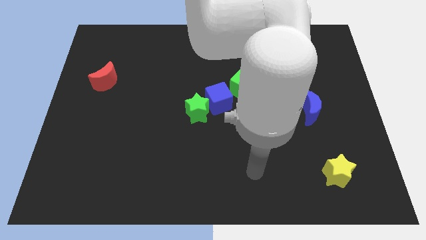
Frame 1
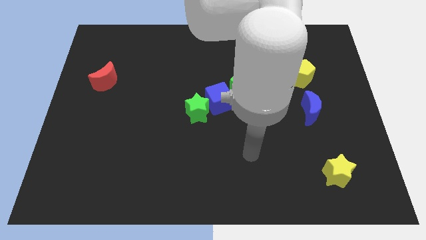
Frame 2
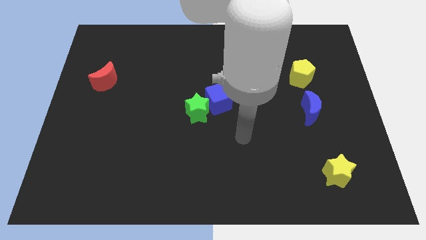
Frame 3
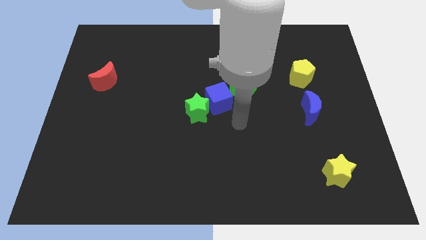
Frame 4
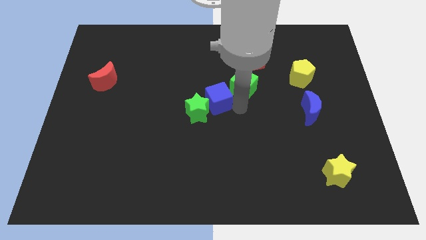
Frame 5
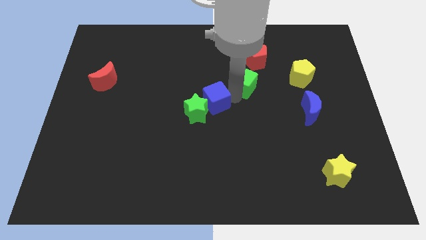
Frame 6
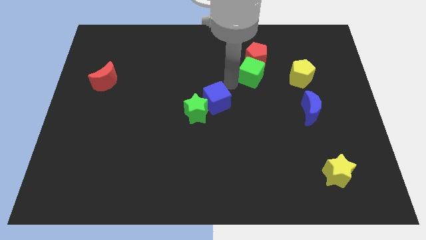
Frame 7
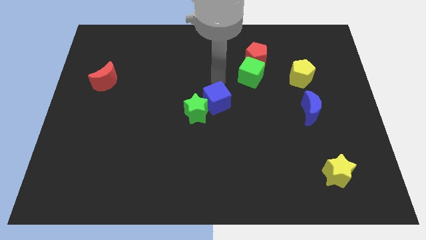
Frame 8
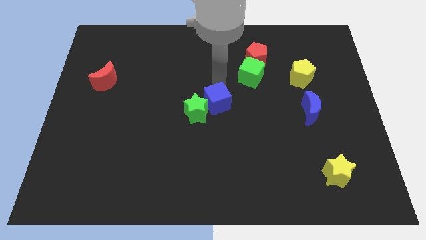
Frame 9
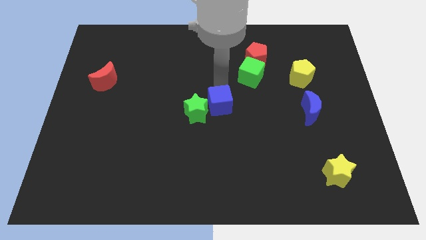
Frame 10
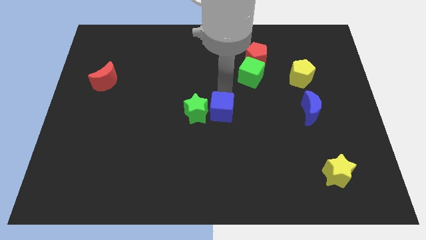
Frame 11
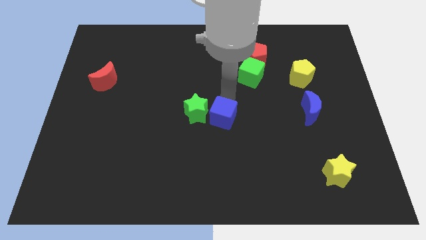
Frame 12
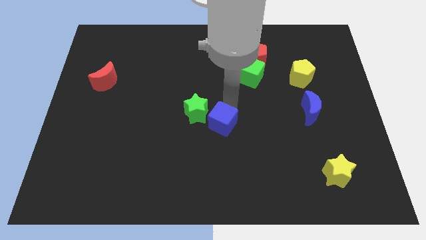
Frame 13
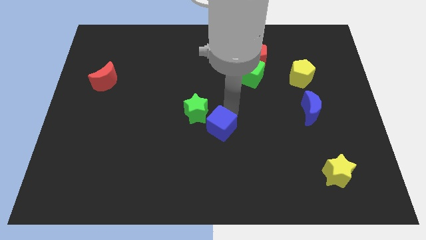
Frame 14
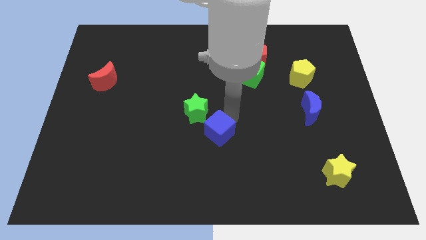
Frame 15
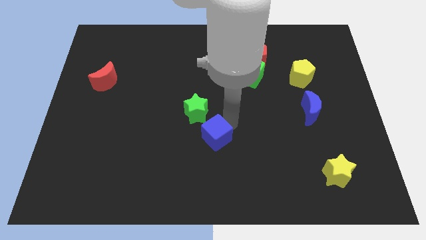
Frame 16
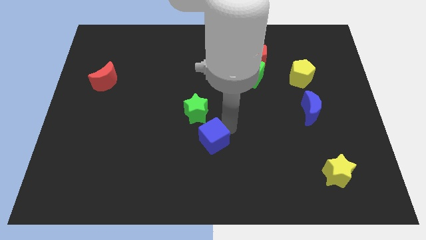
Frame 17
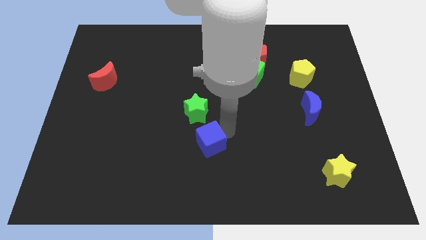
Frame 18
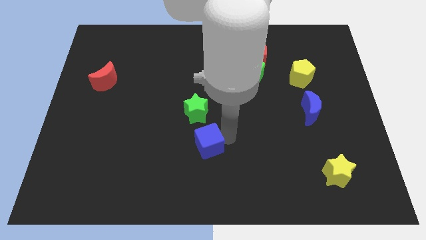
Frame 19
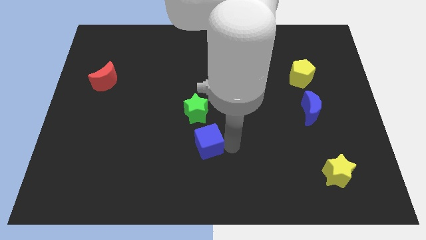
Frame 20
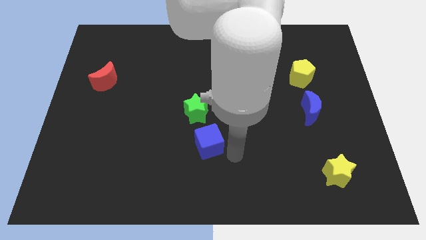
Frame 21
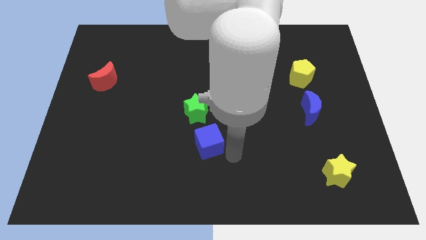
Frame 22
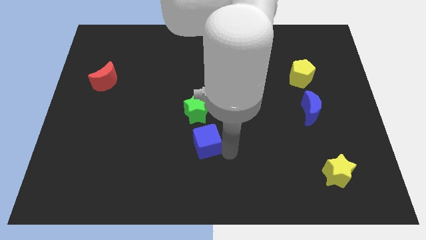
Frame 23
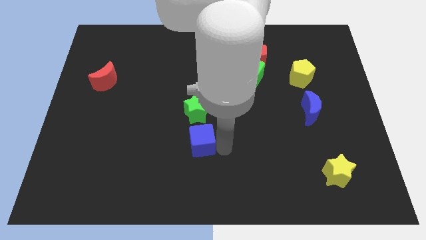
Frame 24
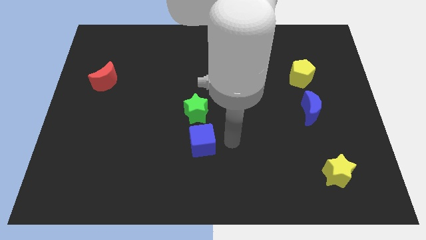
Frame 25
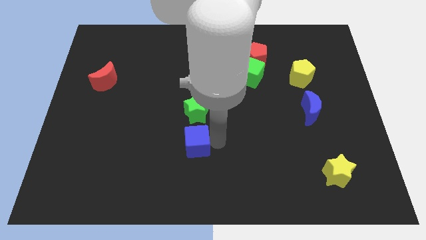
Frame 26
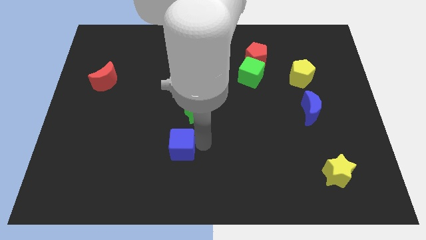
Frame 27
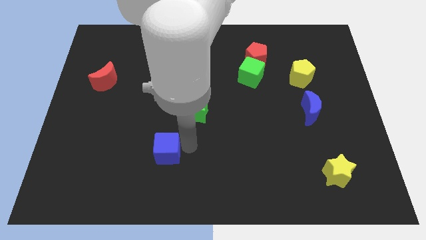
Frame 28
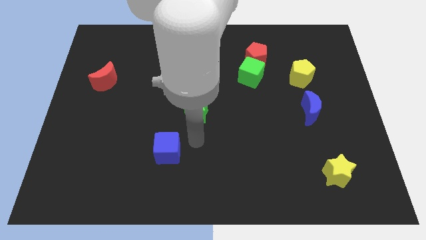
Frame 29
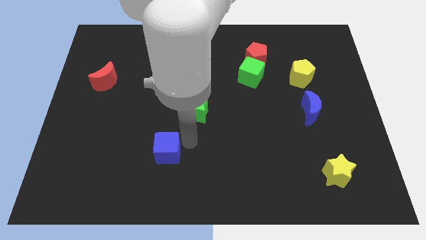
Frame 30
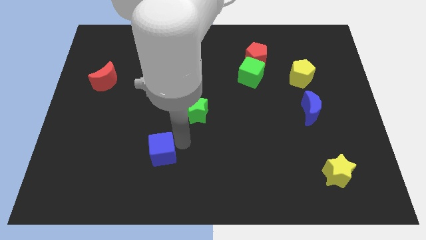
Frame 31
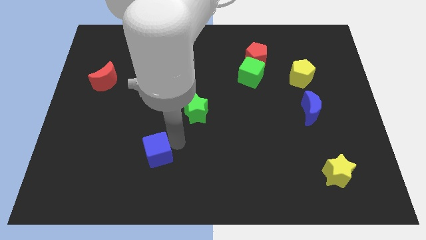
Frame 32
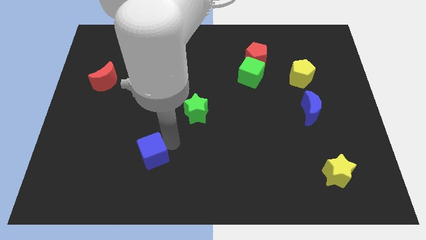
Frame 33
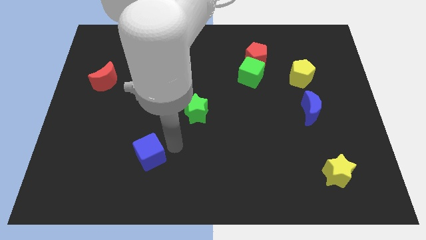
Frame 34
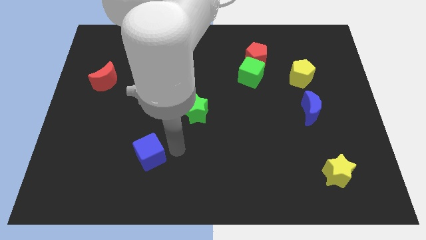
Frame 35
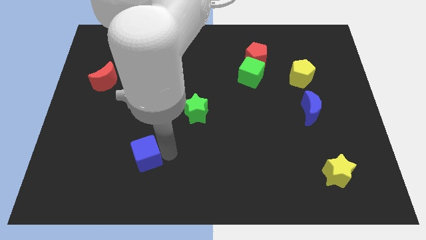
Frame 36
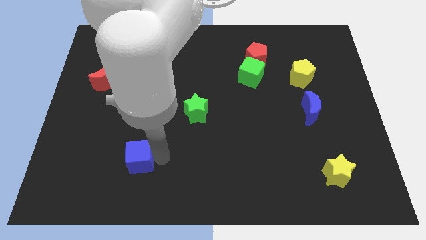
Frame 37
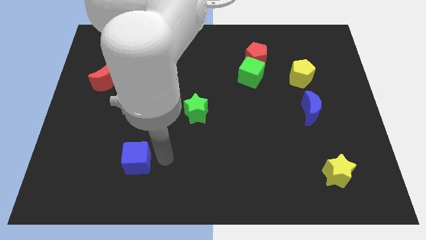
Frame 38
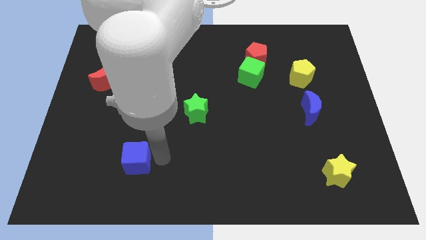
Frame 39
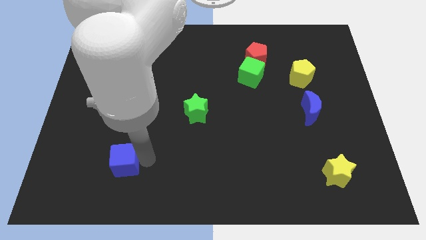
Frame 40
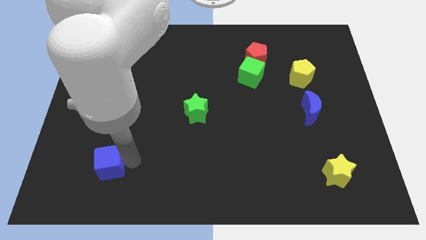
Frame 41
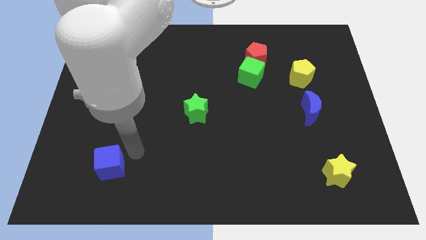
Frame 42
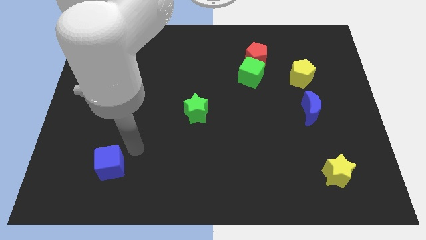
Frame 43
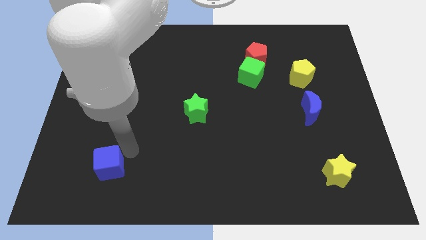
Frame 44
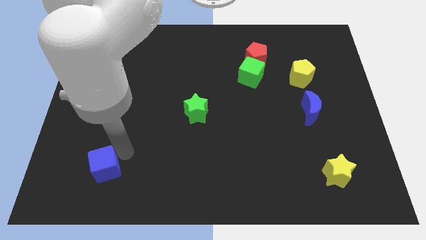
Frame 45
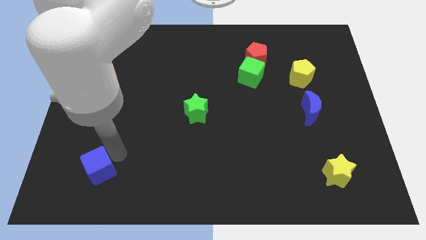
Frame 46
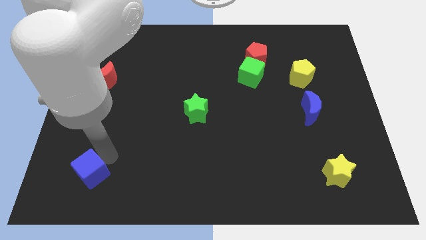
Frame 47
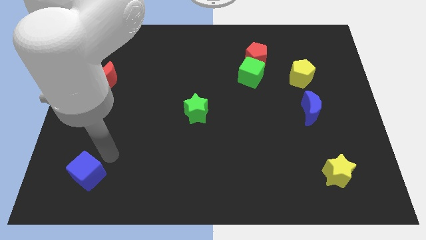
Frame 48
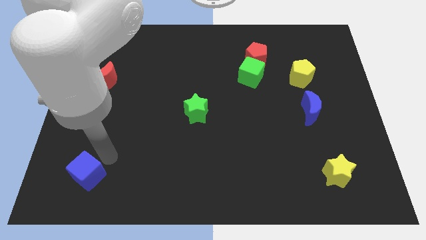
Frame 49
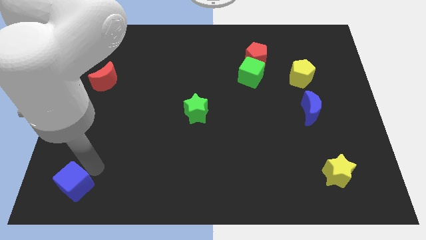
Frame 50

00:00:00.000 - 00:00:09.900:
push the blue cube to the lower left corner

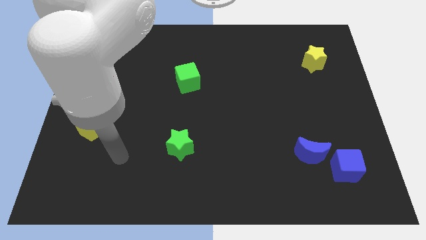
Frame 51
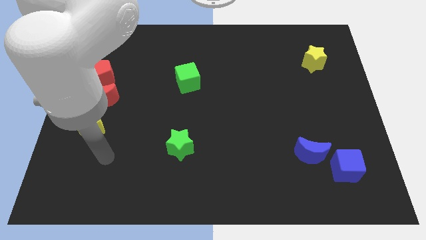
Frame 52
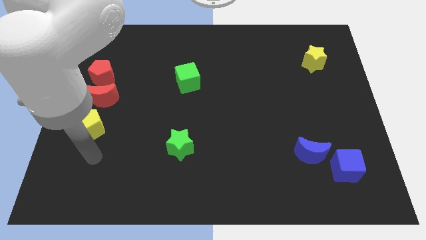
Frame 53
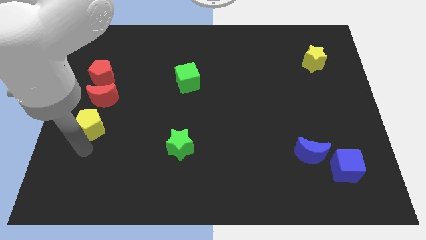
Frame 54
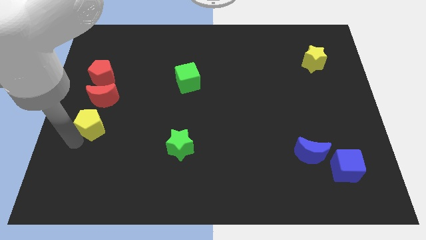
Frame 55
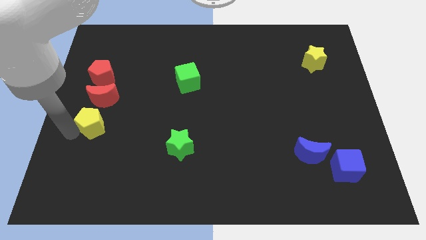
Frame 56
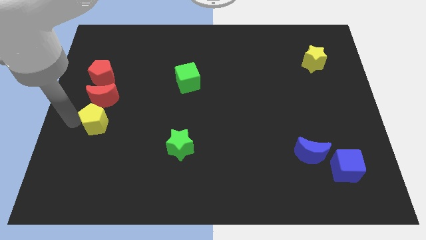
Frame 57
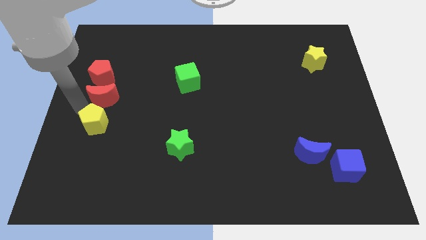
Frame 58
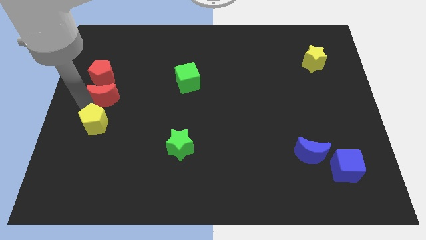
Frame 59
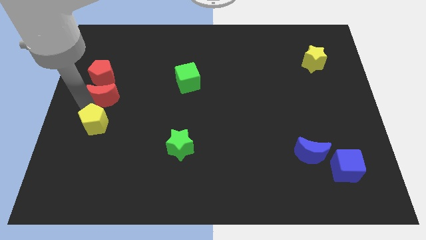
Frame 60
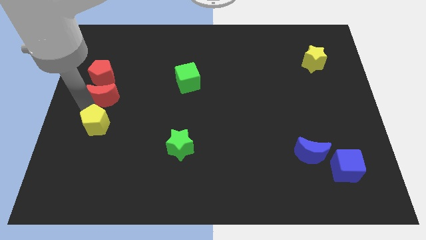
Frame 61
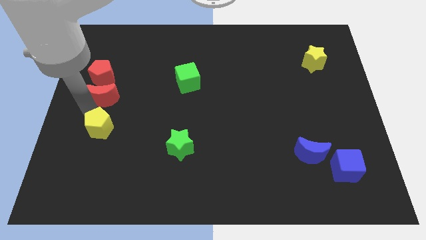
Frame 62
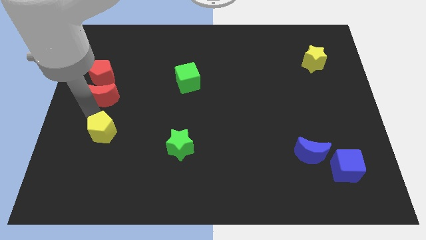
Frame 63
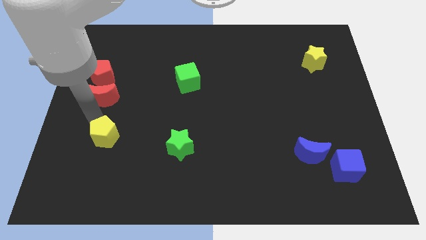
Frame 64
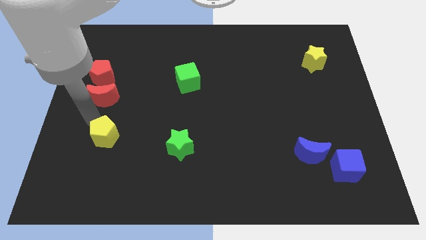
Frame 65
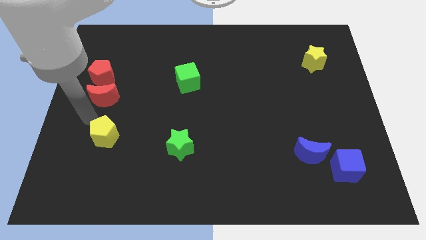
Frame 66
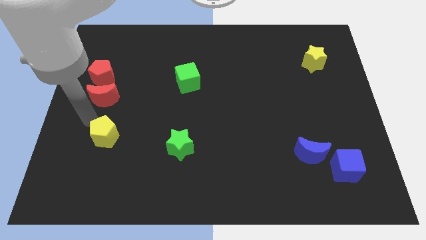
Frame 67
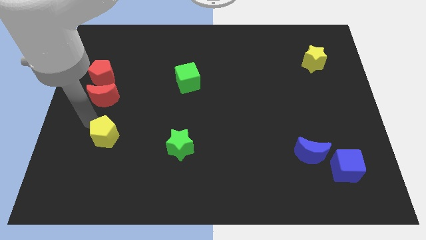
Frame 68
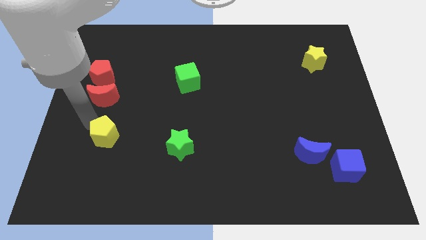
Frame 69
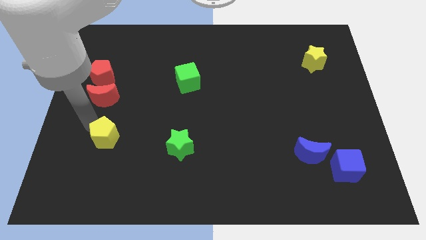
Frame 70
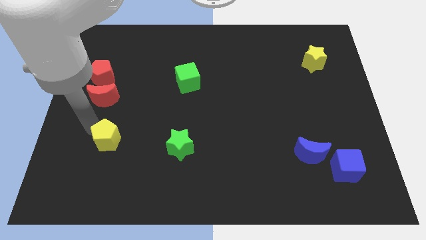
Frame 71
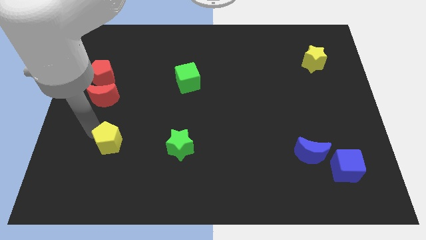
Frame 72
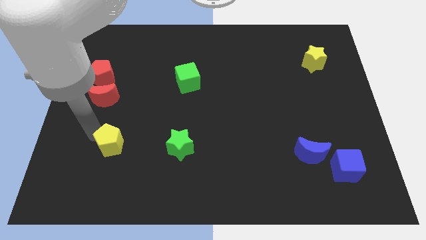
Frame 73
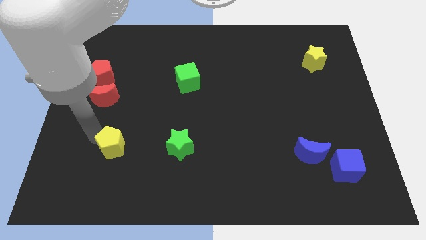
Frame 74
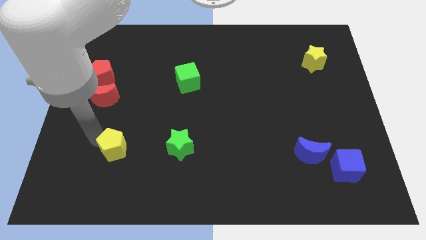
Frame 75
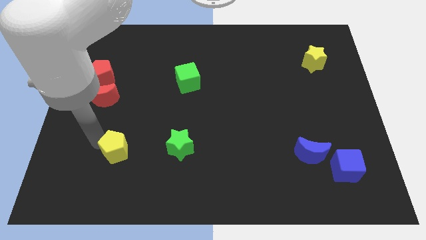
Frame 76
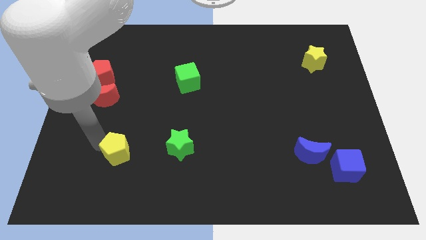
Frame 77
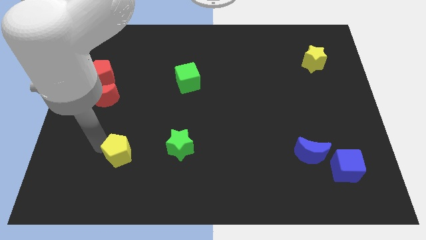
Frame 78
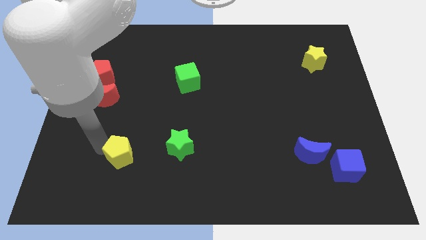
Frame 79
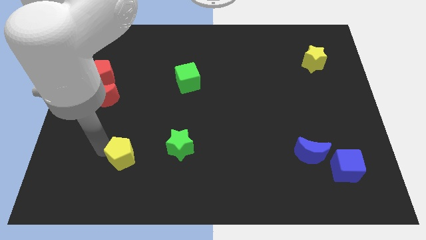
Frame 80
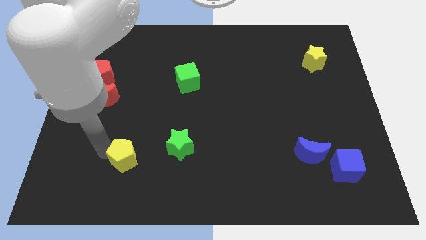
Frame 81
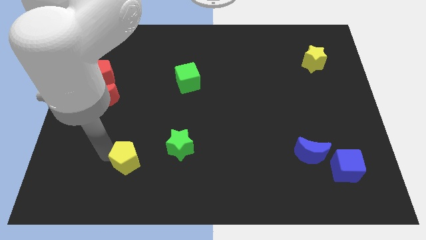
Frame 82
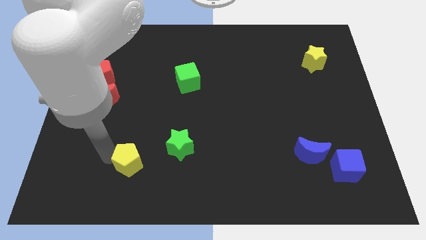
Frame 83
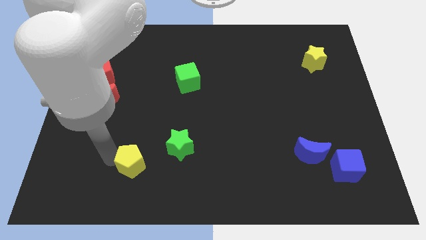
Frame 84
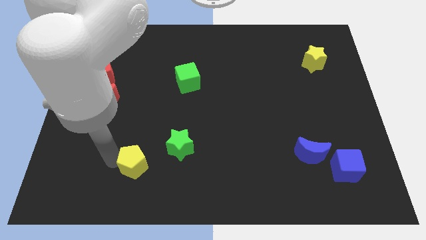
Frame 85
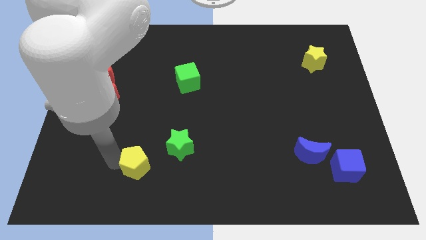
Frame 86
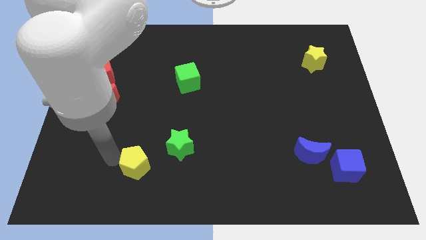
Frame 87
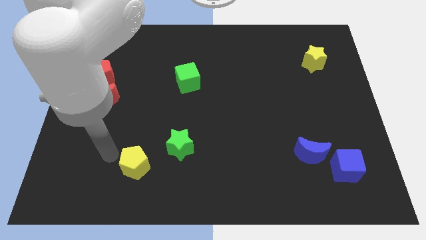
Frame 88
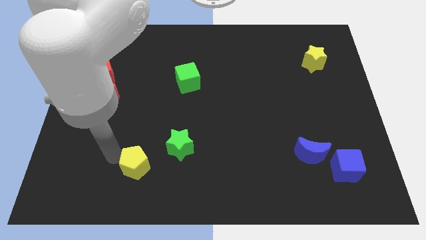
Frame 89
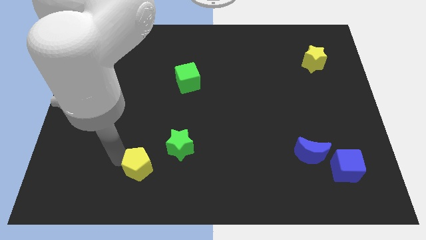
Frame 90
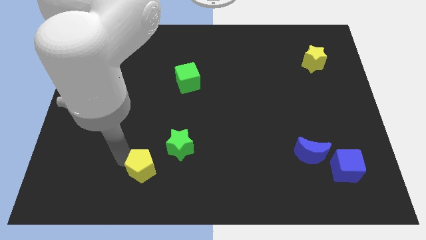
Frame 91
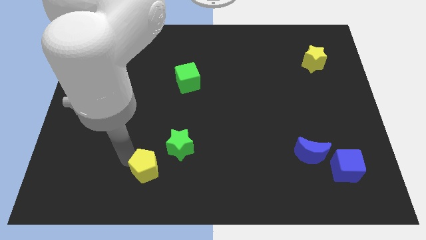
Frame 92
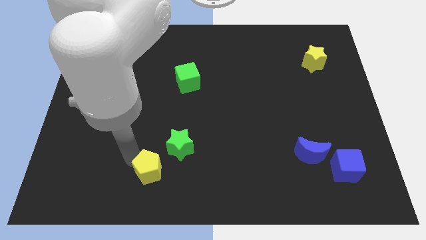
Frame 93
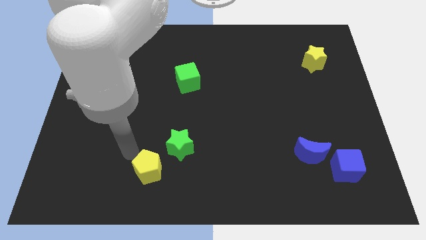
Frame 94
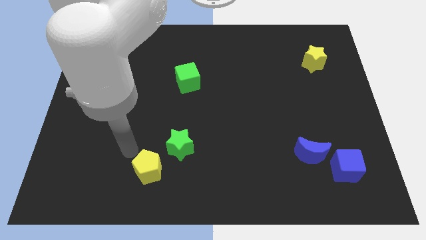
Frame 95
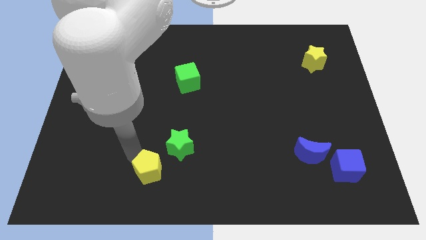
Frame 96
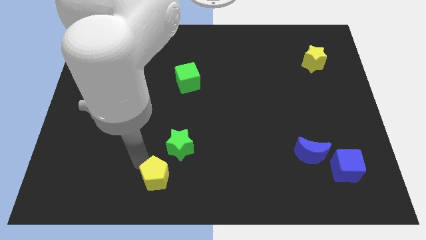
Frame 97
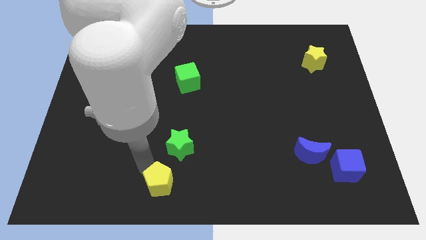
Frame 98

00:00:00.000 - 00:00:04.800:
slide the yellow pentagon to the bottom
